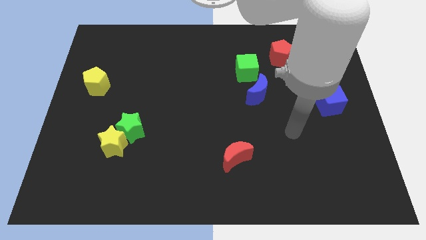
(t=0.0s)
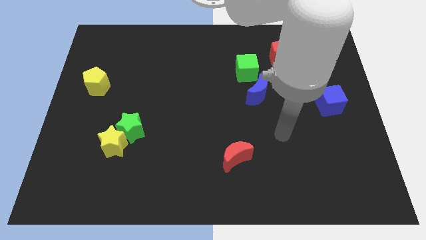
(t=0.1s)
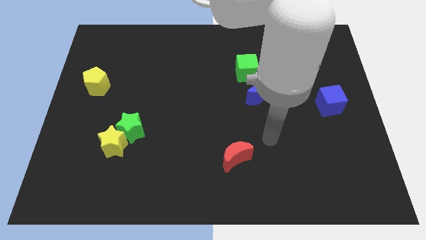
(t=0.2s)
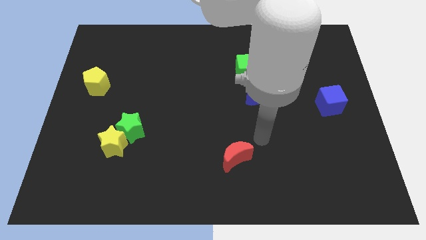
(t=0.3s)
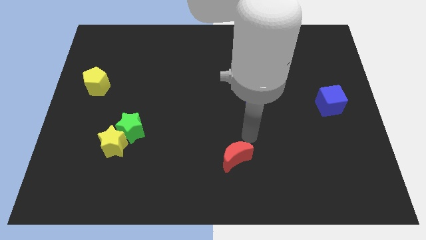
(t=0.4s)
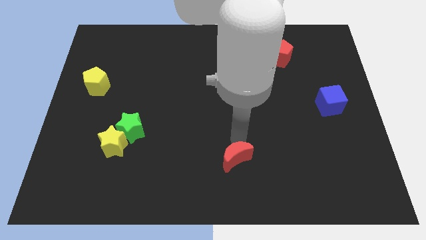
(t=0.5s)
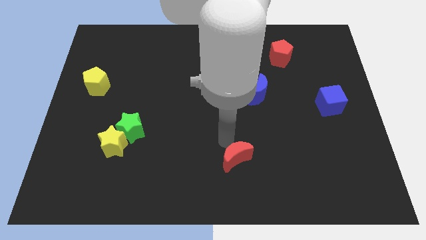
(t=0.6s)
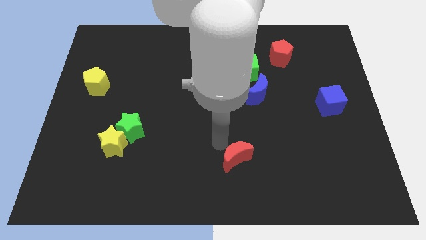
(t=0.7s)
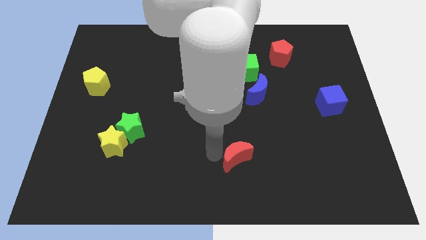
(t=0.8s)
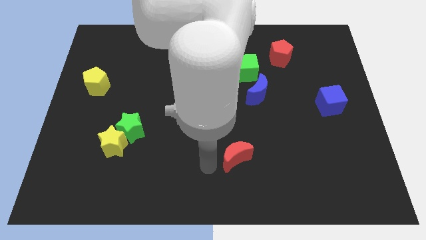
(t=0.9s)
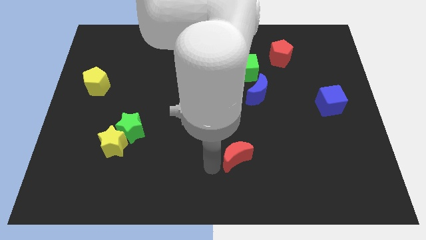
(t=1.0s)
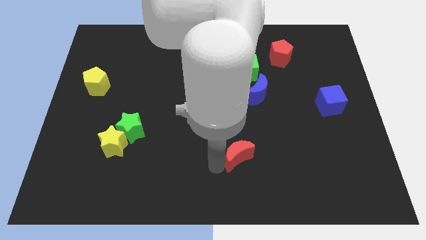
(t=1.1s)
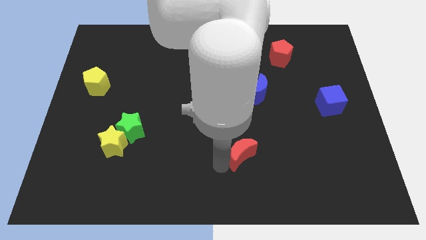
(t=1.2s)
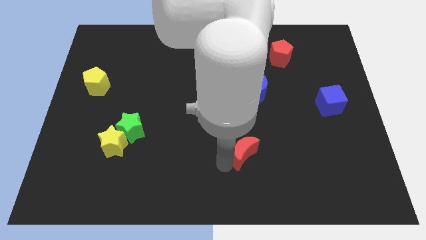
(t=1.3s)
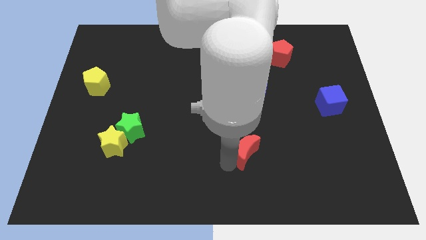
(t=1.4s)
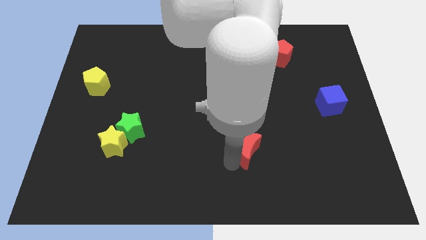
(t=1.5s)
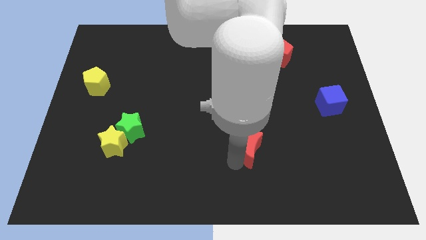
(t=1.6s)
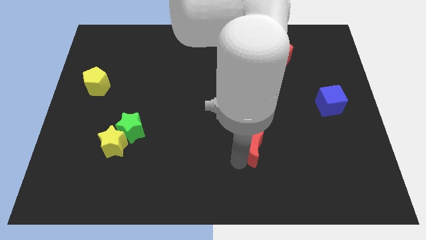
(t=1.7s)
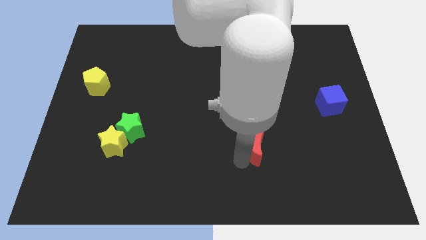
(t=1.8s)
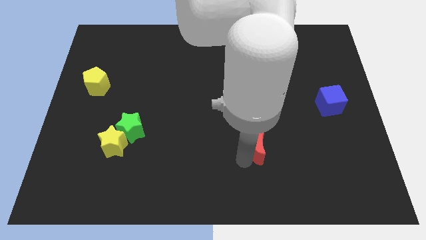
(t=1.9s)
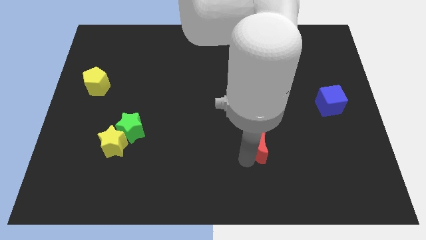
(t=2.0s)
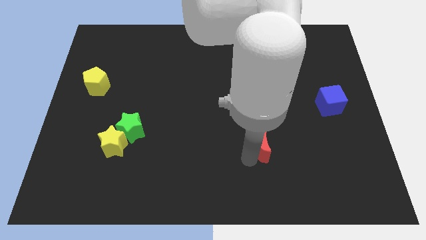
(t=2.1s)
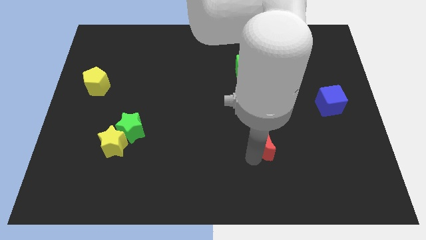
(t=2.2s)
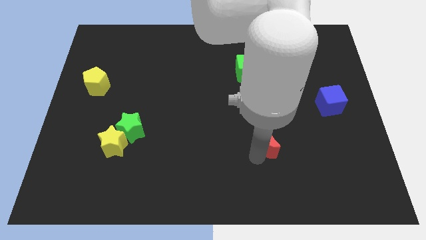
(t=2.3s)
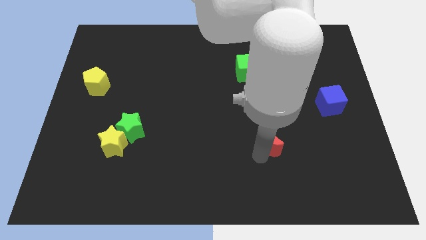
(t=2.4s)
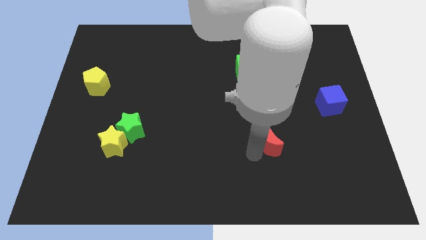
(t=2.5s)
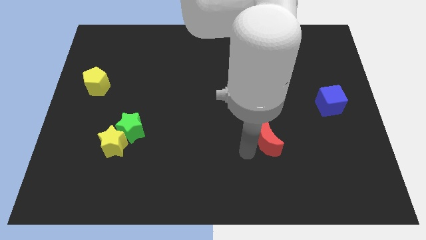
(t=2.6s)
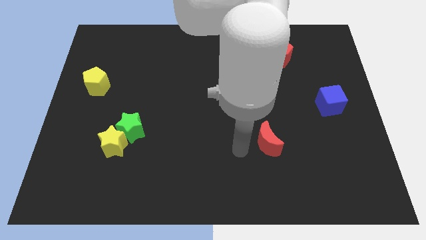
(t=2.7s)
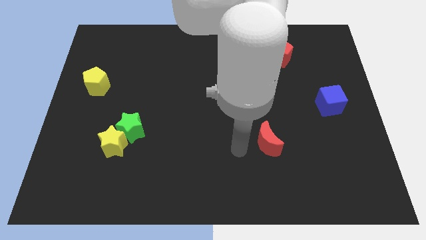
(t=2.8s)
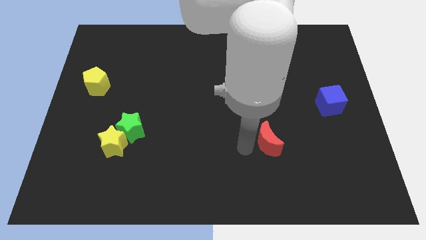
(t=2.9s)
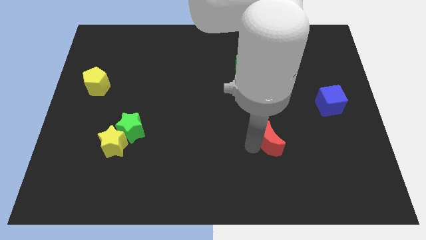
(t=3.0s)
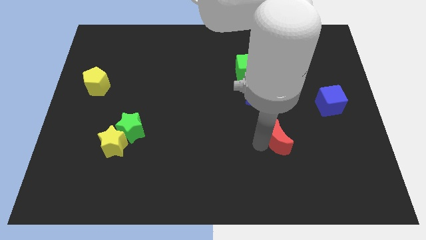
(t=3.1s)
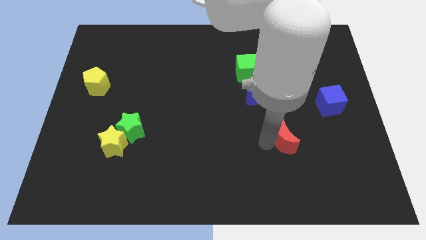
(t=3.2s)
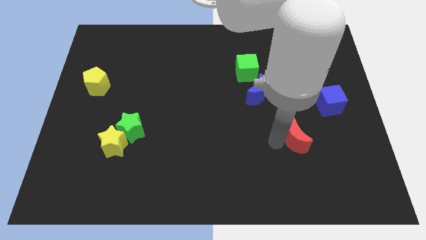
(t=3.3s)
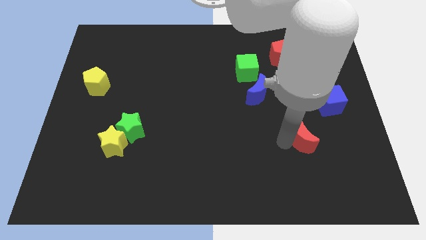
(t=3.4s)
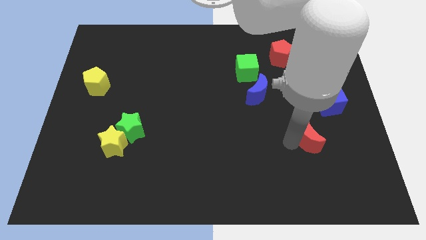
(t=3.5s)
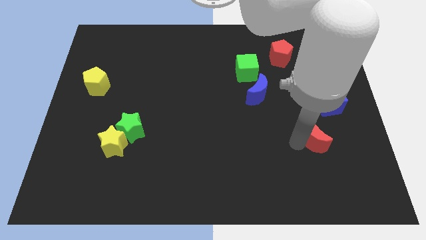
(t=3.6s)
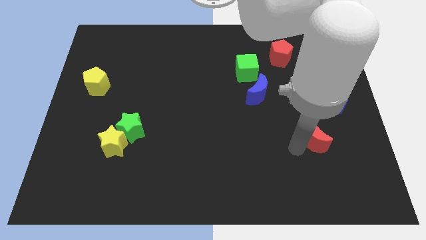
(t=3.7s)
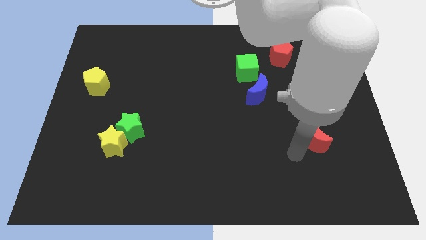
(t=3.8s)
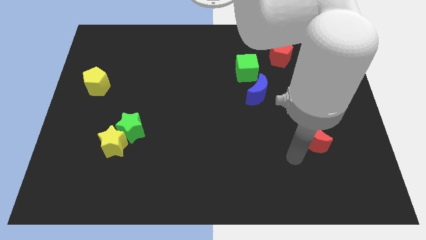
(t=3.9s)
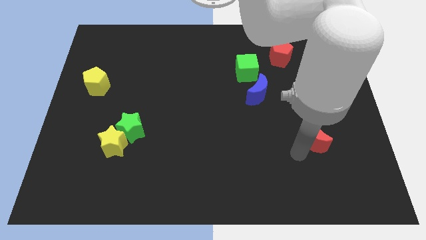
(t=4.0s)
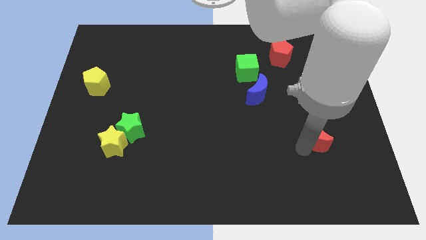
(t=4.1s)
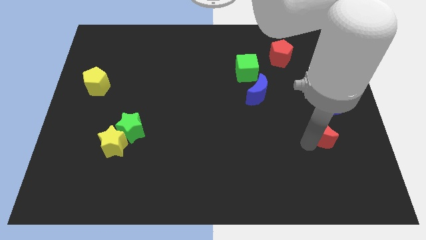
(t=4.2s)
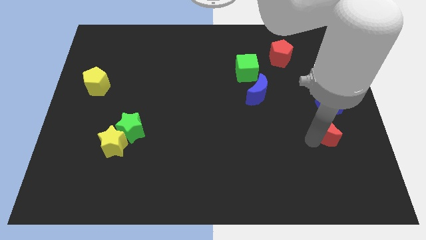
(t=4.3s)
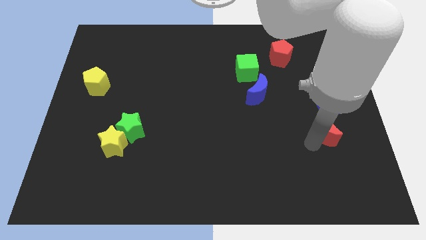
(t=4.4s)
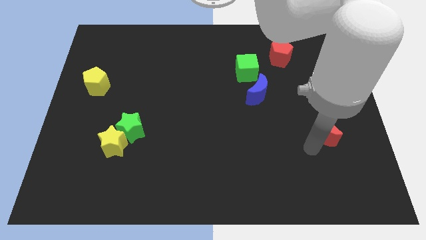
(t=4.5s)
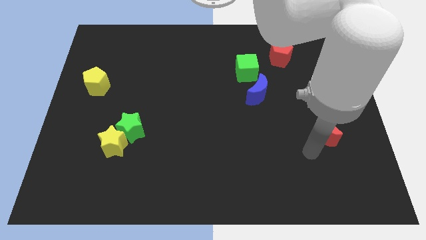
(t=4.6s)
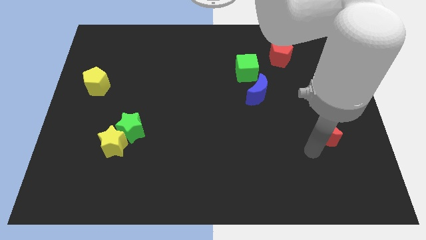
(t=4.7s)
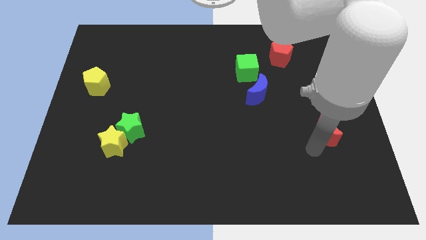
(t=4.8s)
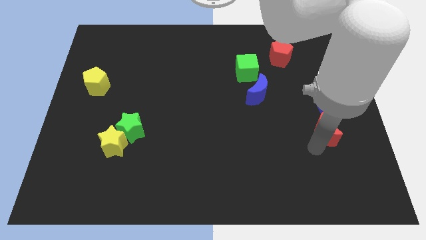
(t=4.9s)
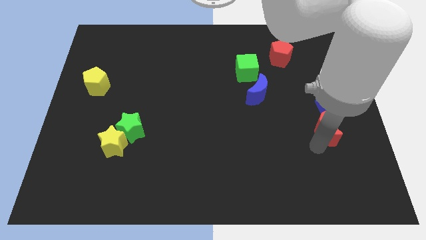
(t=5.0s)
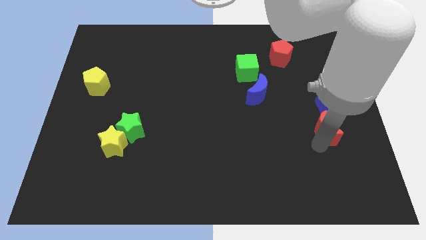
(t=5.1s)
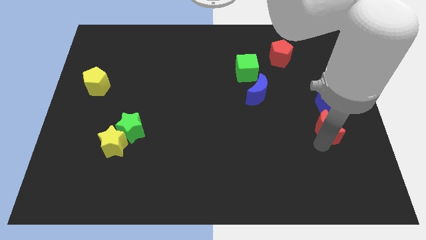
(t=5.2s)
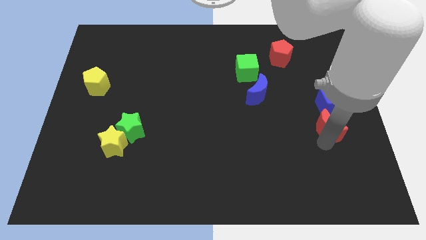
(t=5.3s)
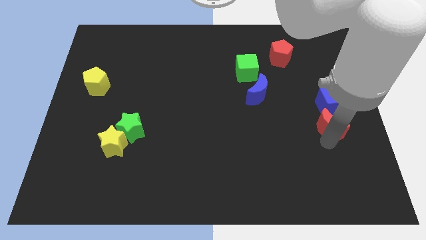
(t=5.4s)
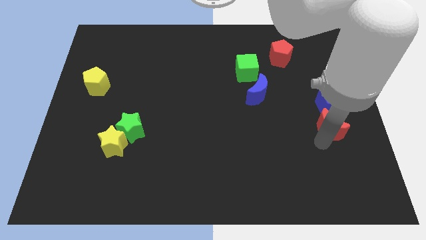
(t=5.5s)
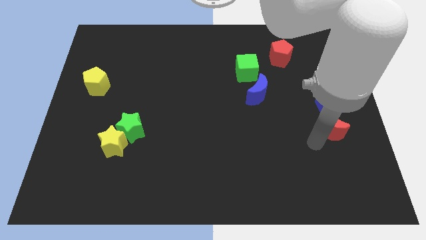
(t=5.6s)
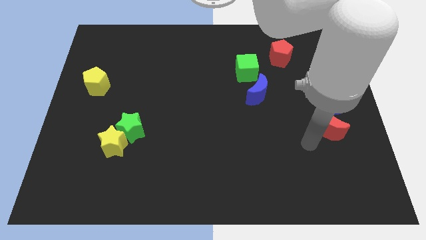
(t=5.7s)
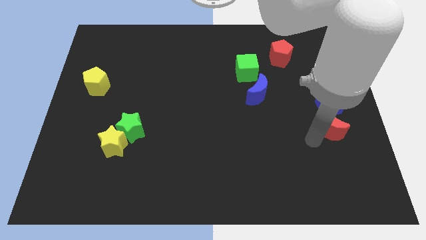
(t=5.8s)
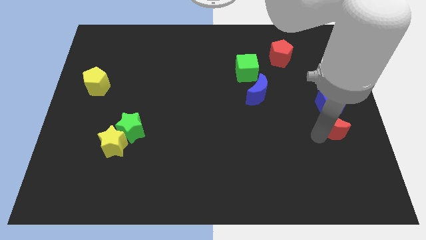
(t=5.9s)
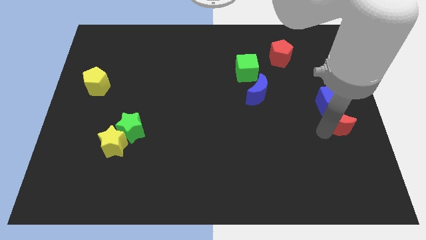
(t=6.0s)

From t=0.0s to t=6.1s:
move the red moon to the right side

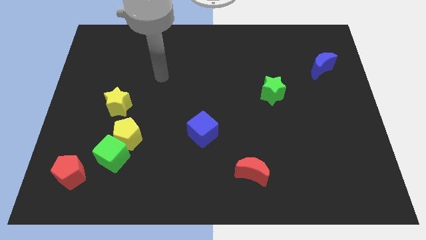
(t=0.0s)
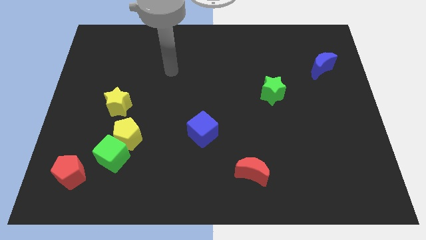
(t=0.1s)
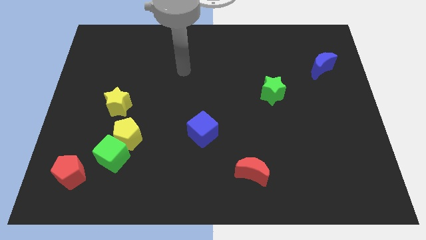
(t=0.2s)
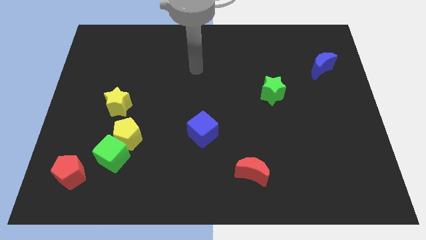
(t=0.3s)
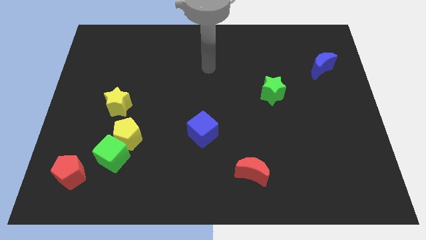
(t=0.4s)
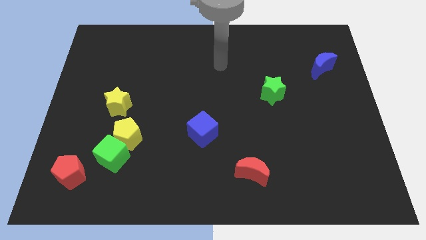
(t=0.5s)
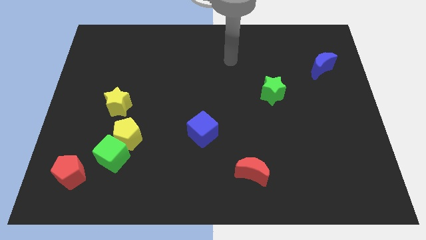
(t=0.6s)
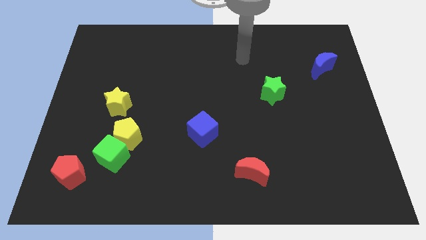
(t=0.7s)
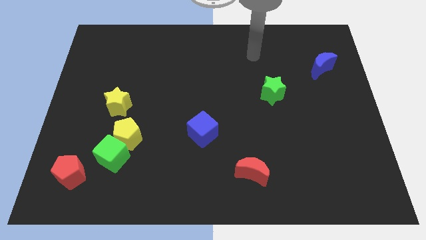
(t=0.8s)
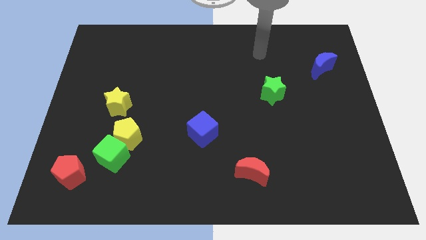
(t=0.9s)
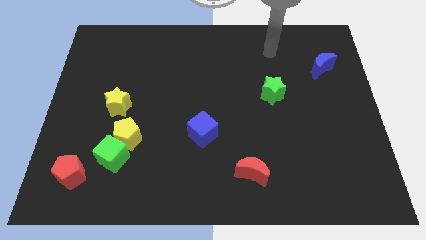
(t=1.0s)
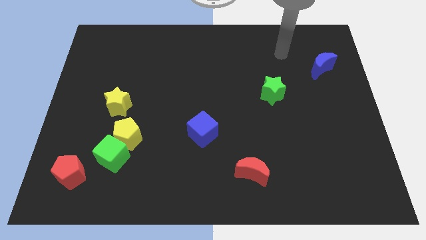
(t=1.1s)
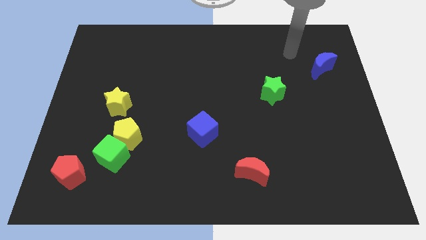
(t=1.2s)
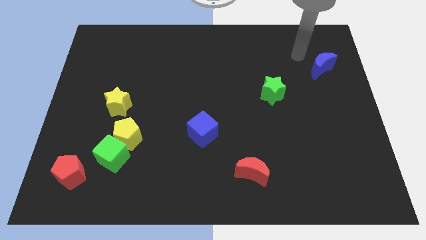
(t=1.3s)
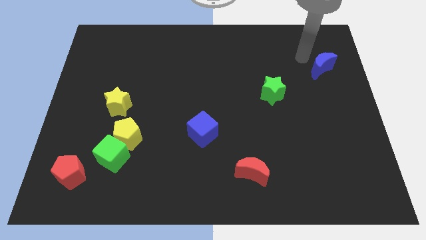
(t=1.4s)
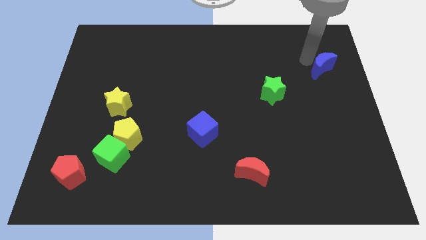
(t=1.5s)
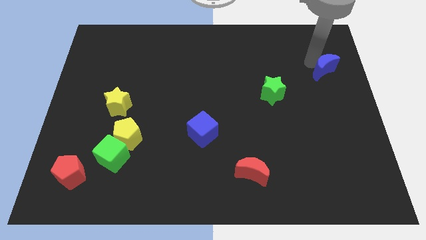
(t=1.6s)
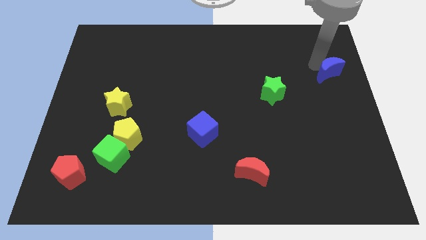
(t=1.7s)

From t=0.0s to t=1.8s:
push the blue moon to the right side of the board
